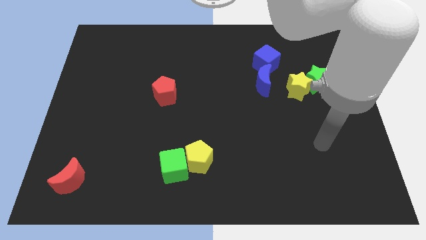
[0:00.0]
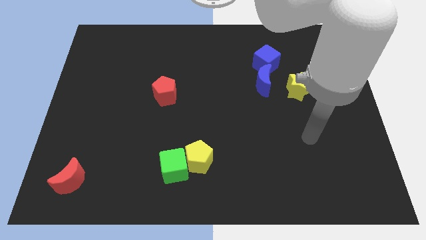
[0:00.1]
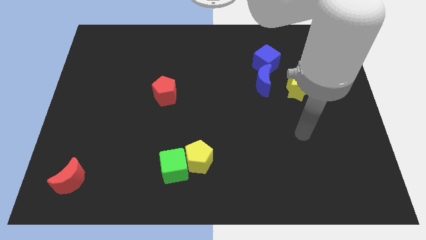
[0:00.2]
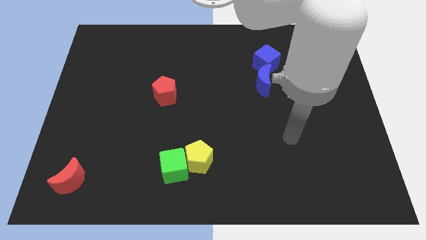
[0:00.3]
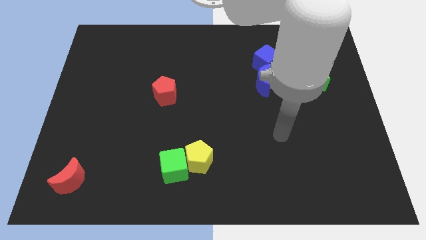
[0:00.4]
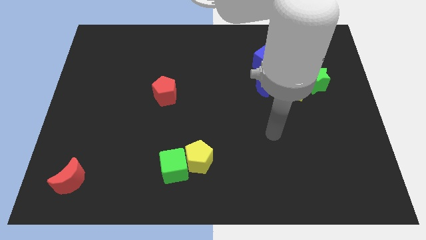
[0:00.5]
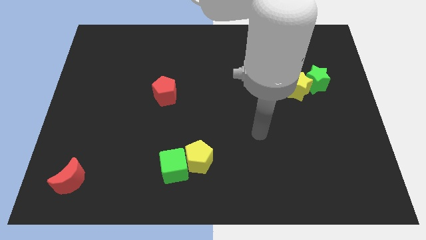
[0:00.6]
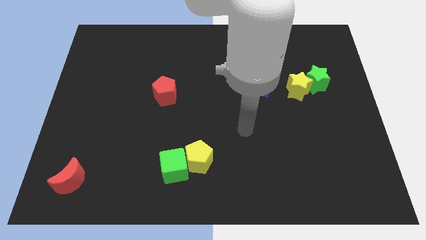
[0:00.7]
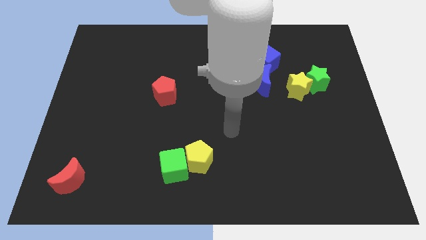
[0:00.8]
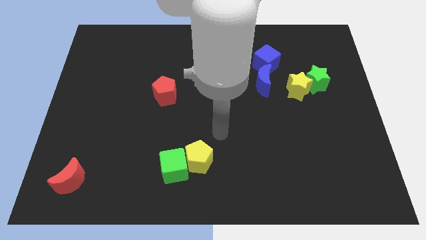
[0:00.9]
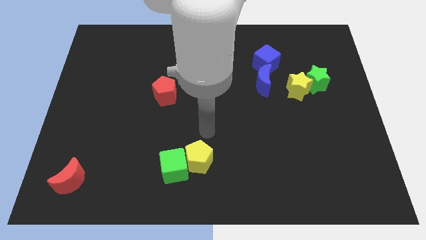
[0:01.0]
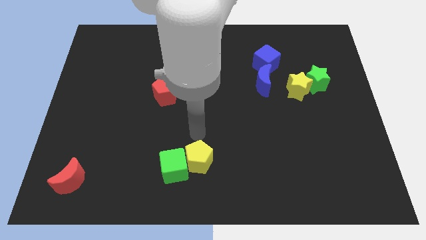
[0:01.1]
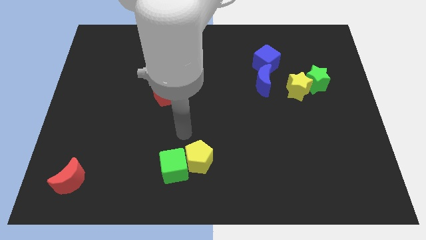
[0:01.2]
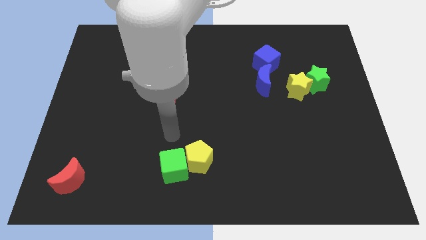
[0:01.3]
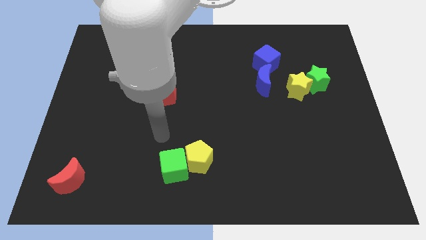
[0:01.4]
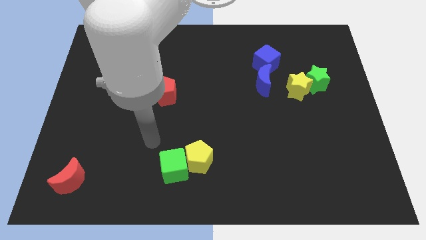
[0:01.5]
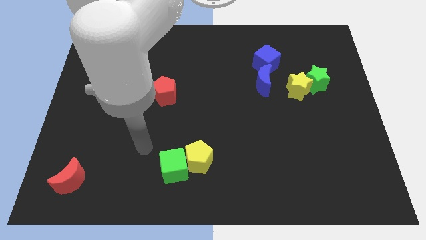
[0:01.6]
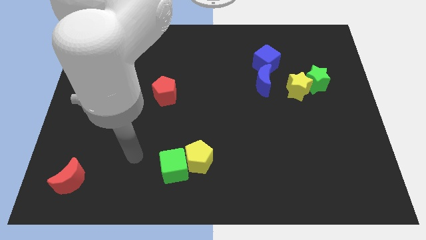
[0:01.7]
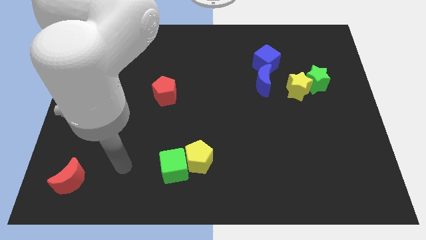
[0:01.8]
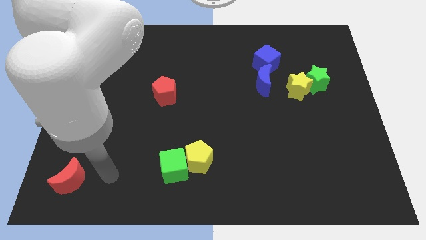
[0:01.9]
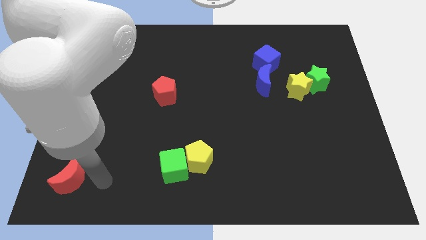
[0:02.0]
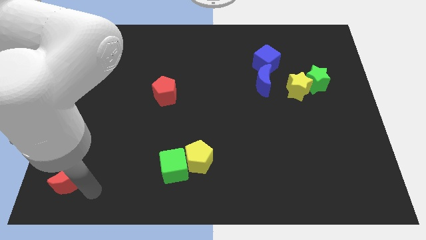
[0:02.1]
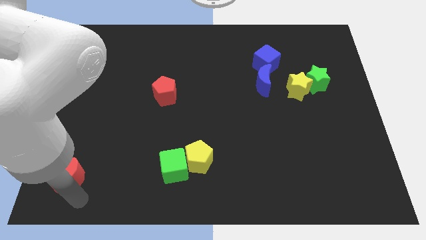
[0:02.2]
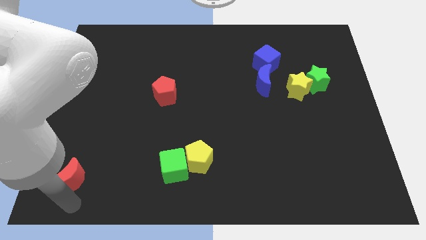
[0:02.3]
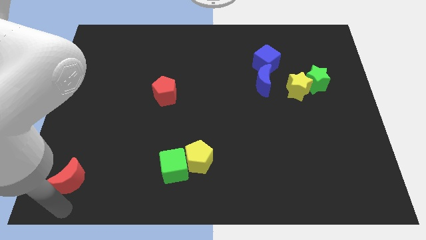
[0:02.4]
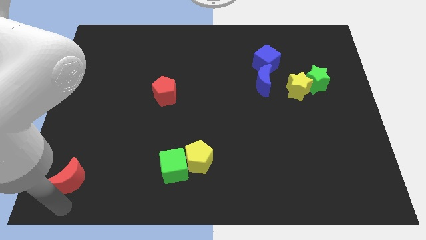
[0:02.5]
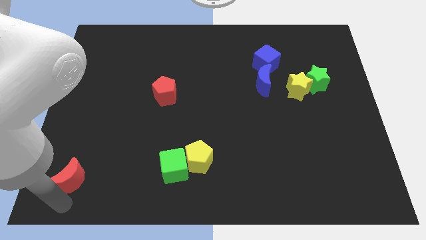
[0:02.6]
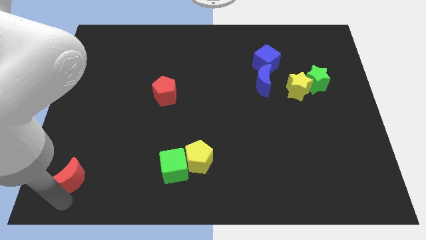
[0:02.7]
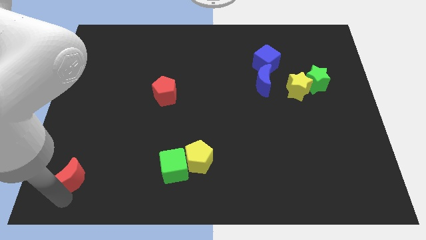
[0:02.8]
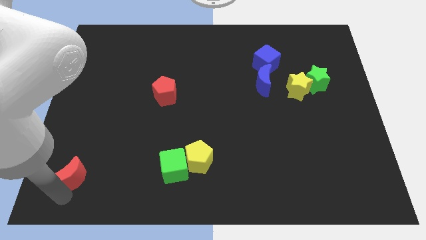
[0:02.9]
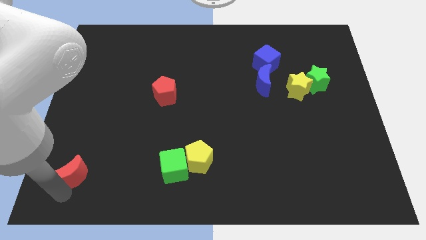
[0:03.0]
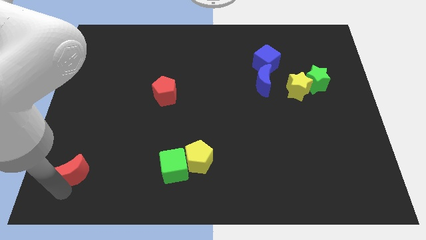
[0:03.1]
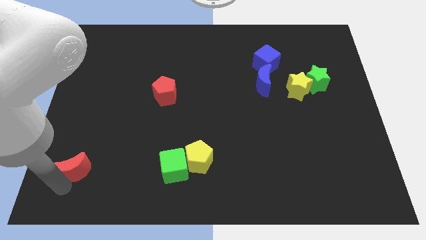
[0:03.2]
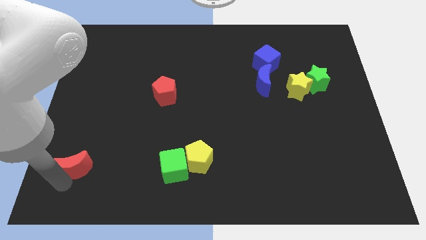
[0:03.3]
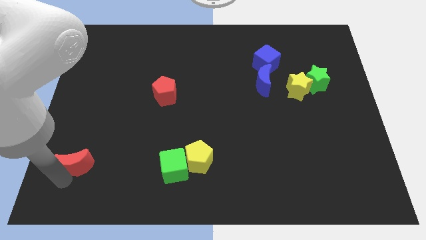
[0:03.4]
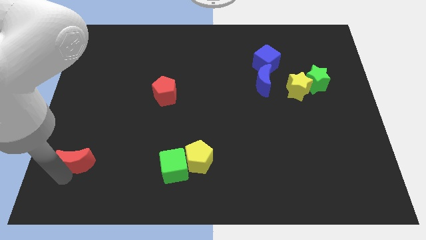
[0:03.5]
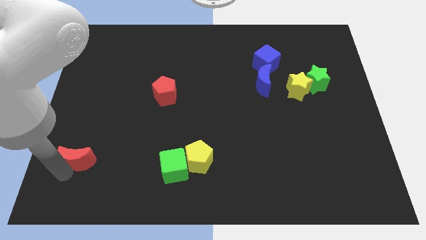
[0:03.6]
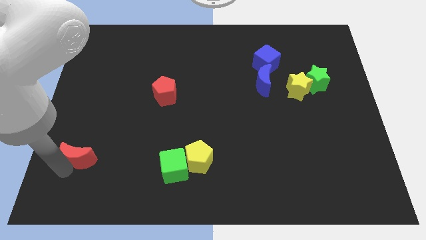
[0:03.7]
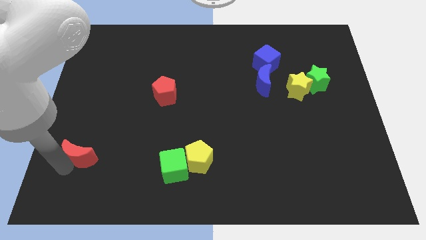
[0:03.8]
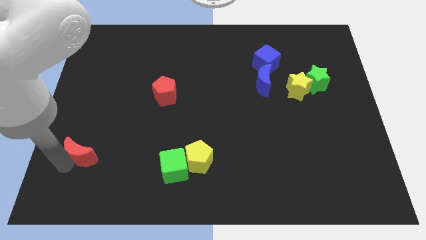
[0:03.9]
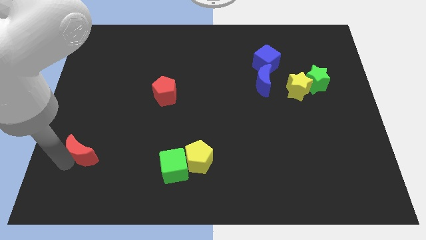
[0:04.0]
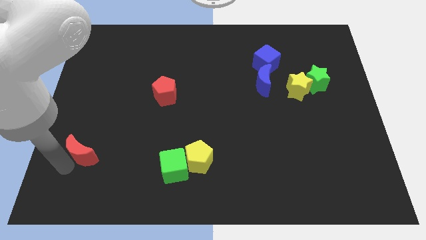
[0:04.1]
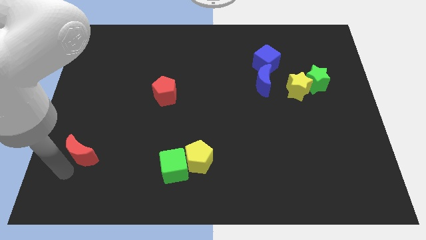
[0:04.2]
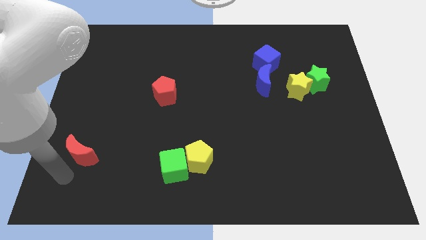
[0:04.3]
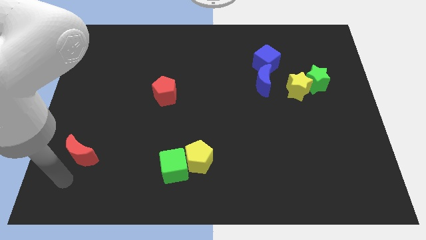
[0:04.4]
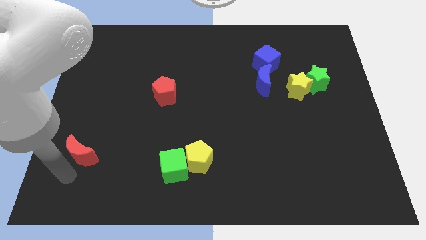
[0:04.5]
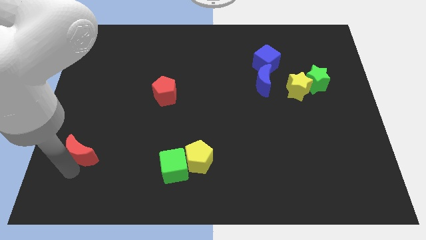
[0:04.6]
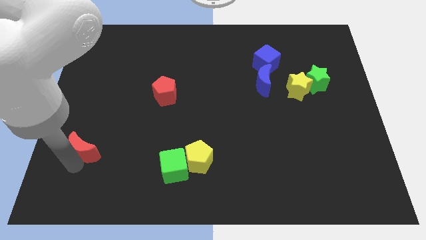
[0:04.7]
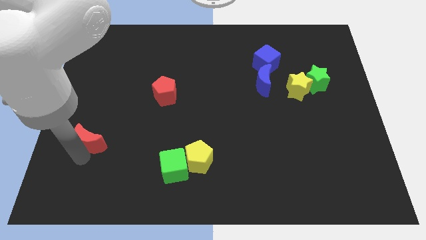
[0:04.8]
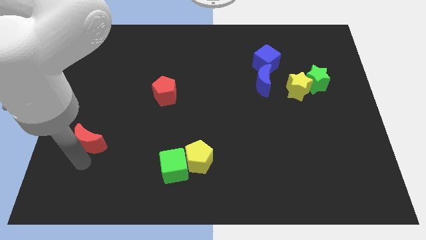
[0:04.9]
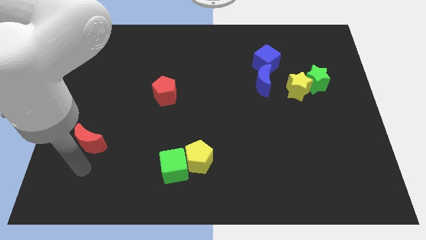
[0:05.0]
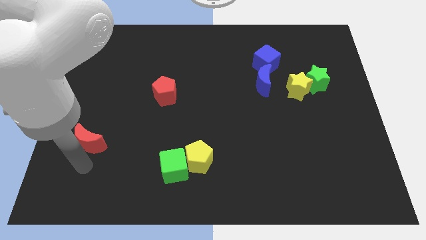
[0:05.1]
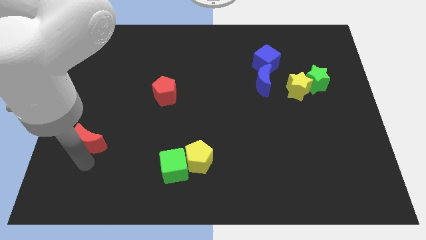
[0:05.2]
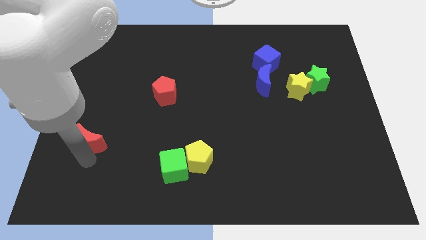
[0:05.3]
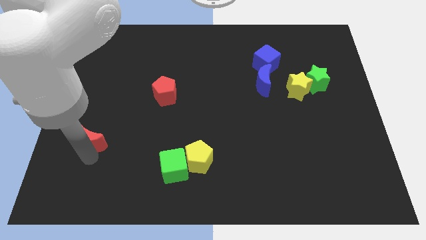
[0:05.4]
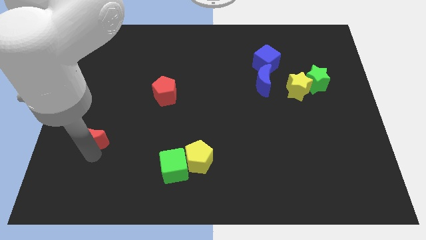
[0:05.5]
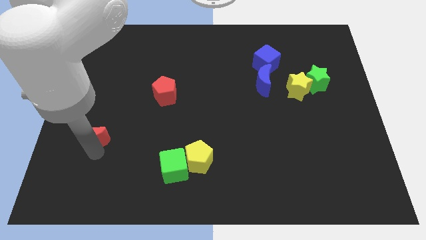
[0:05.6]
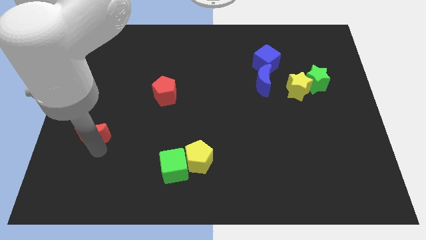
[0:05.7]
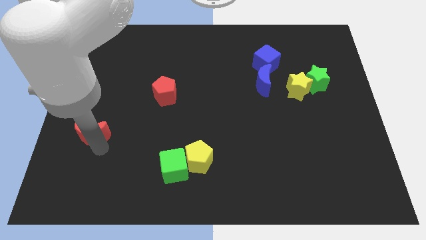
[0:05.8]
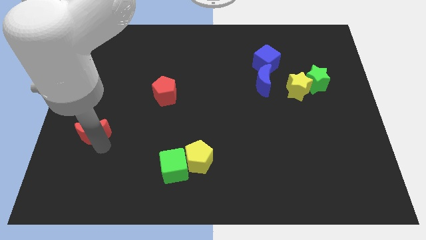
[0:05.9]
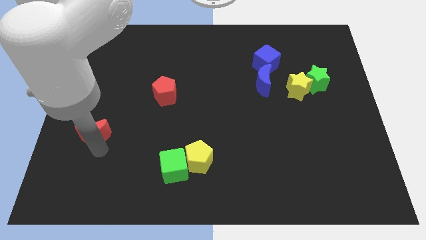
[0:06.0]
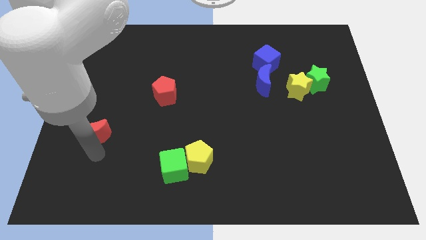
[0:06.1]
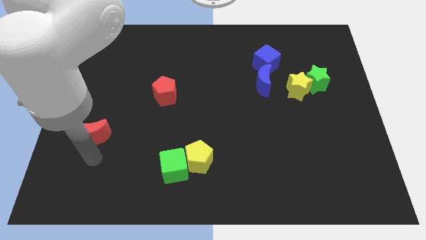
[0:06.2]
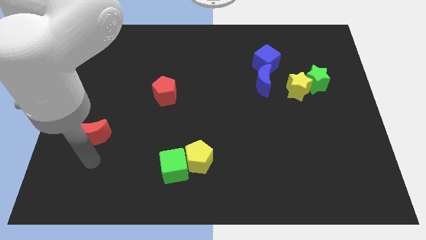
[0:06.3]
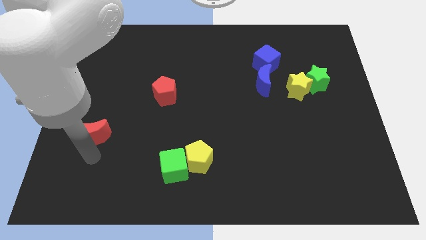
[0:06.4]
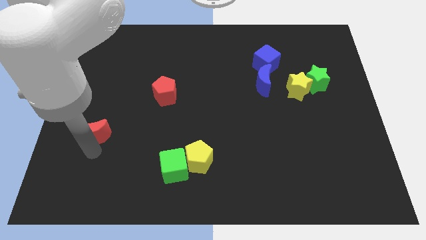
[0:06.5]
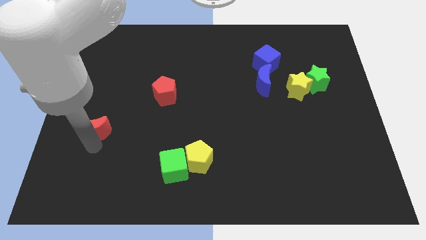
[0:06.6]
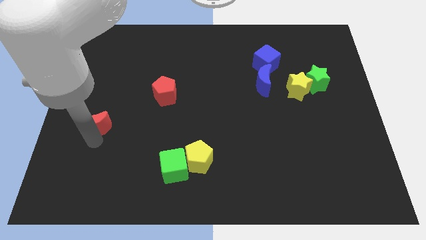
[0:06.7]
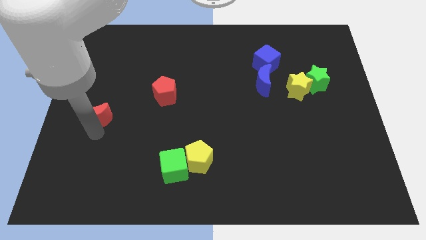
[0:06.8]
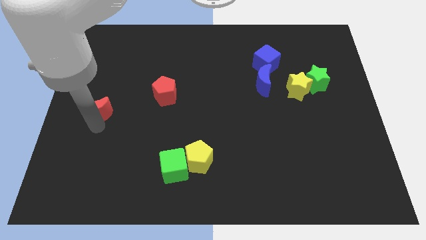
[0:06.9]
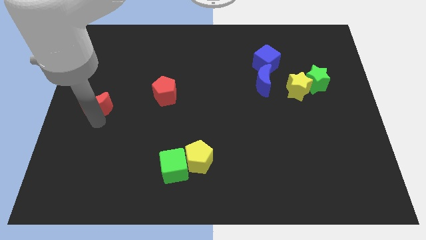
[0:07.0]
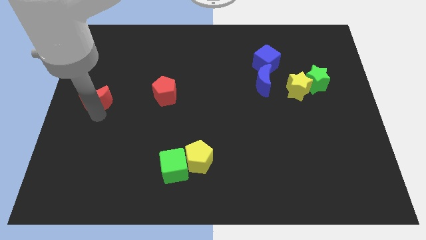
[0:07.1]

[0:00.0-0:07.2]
move the red moon upwards

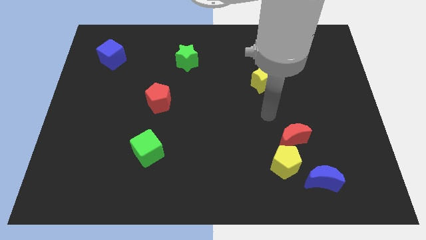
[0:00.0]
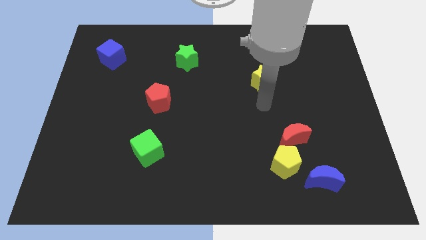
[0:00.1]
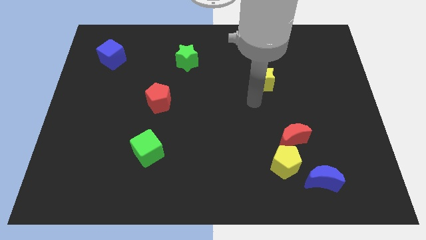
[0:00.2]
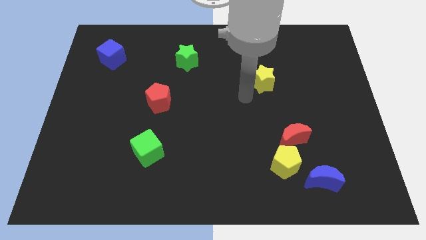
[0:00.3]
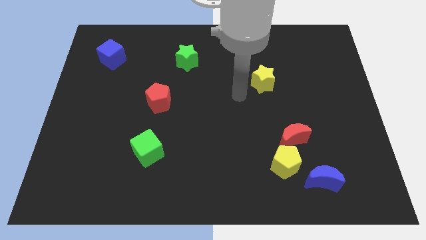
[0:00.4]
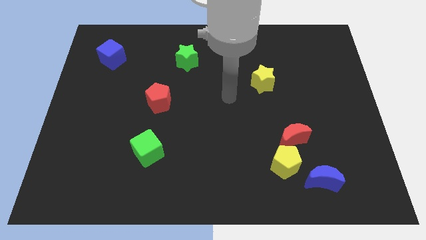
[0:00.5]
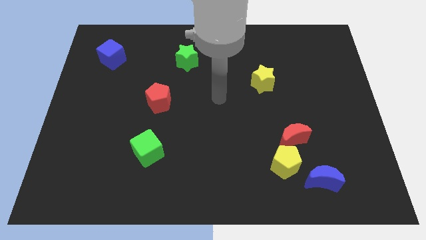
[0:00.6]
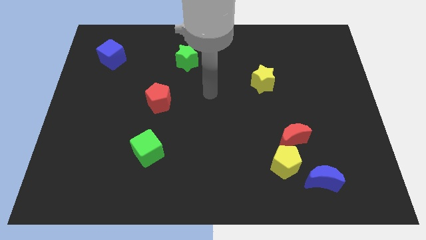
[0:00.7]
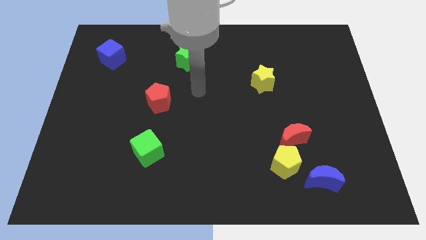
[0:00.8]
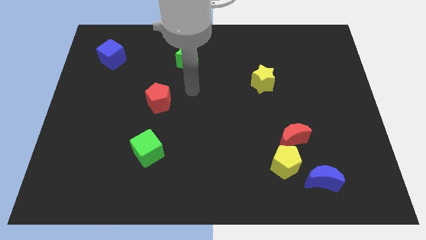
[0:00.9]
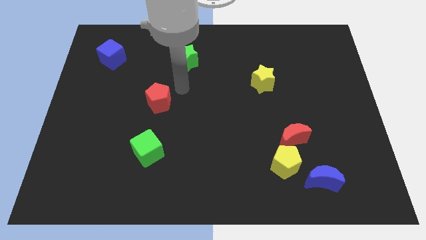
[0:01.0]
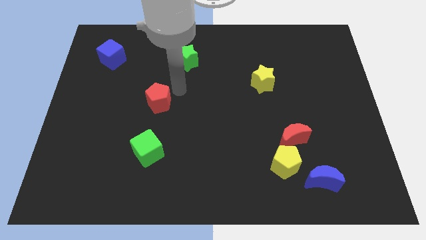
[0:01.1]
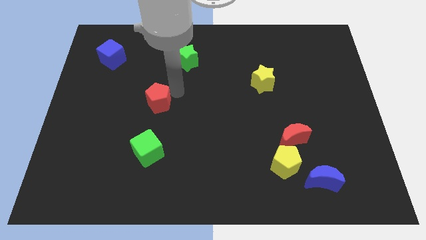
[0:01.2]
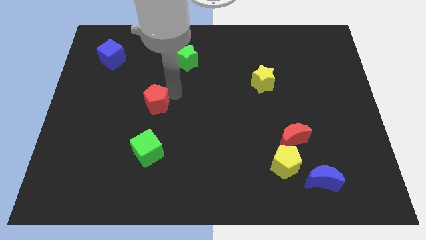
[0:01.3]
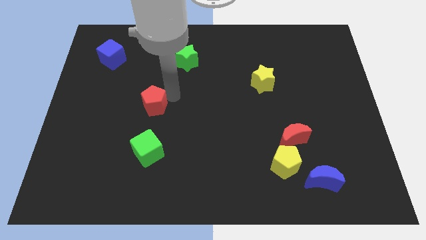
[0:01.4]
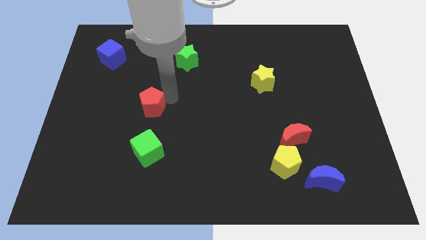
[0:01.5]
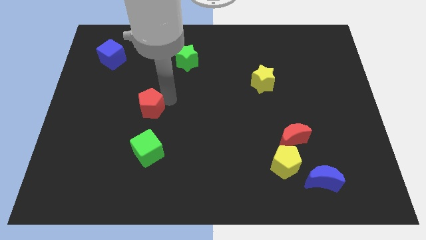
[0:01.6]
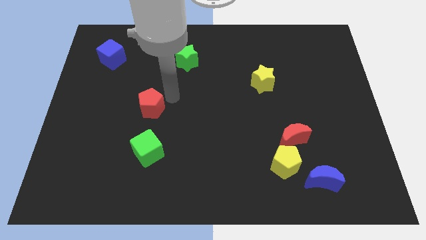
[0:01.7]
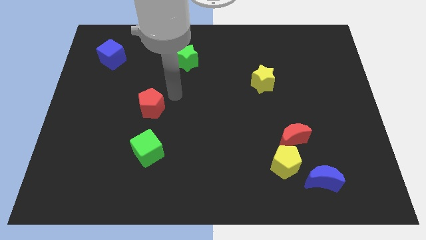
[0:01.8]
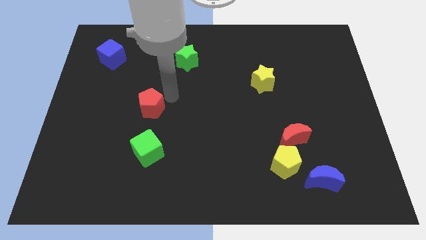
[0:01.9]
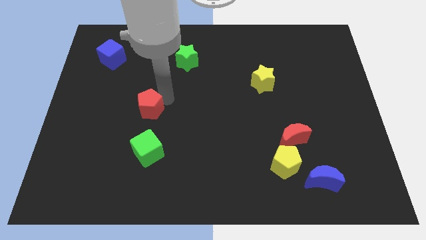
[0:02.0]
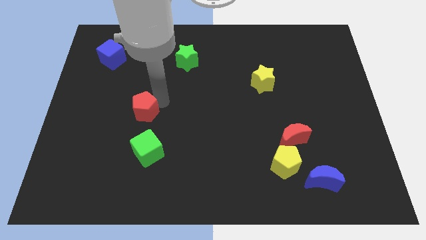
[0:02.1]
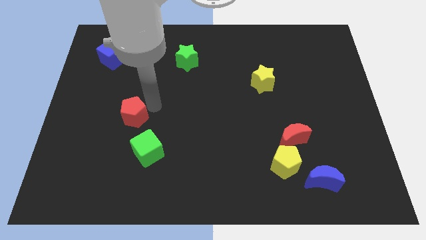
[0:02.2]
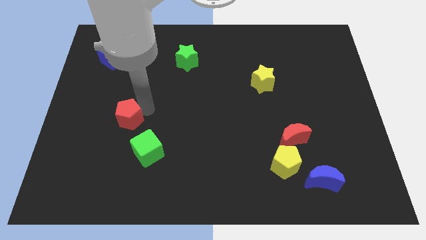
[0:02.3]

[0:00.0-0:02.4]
slightly move the red pentagon diagonally down and left
